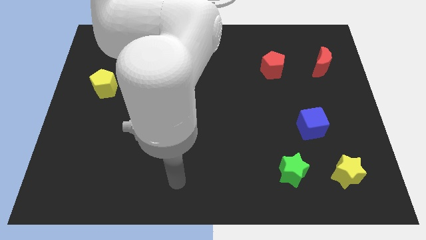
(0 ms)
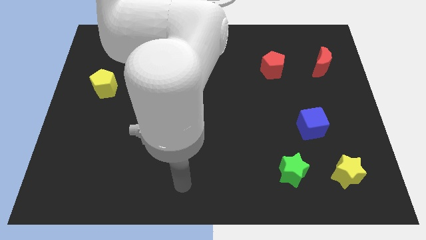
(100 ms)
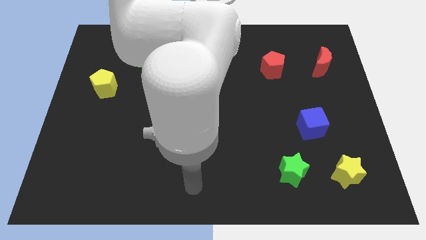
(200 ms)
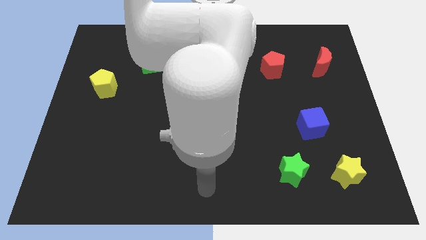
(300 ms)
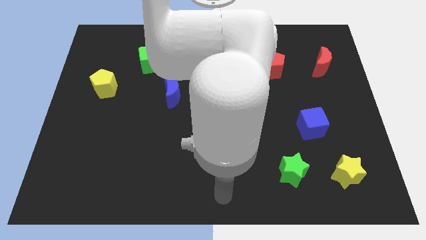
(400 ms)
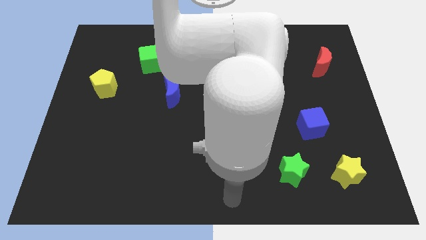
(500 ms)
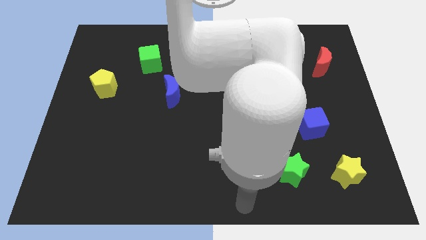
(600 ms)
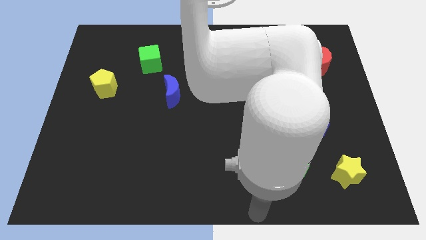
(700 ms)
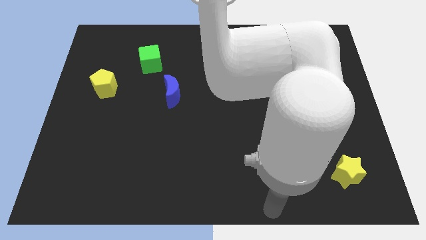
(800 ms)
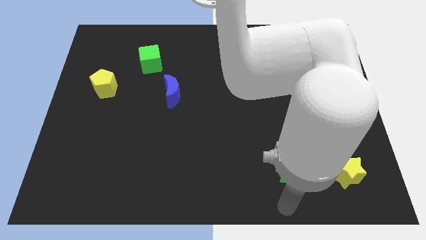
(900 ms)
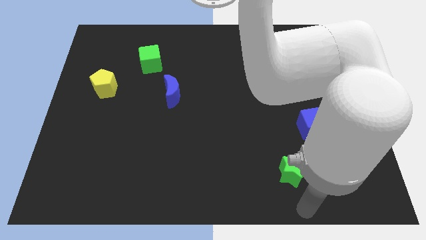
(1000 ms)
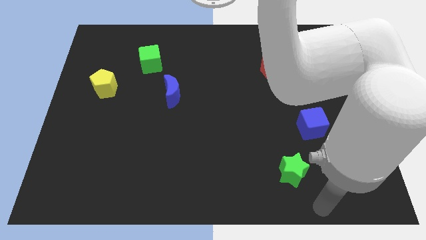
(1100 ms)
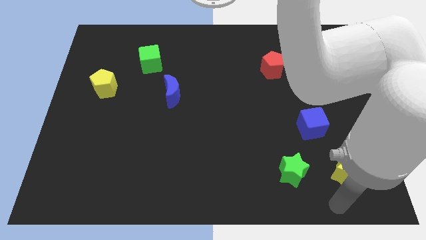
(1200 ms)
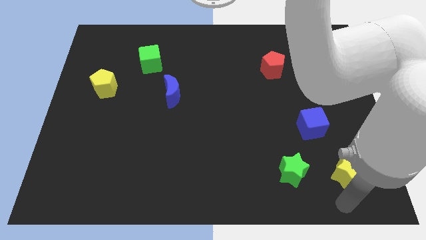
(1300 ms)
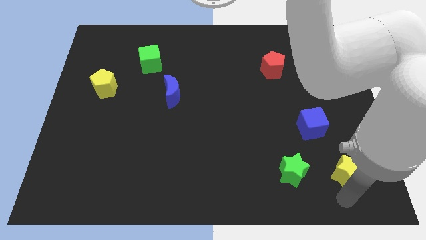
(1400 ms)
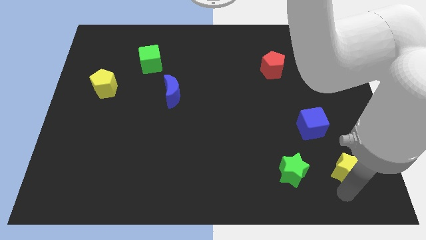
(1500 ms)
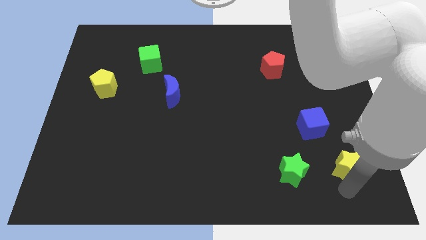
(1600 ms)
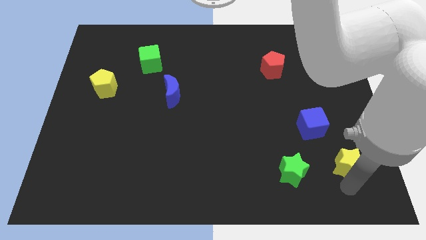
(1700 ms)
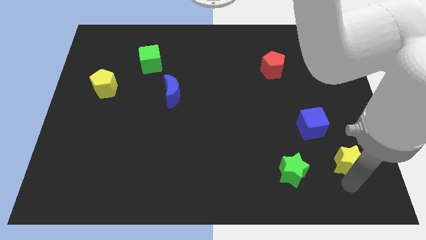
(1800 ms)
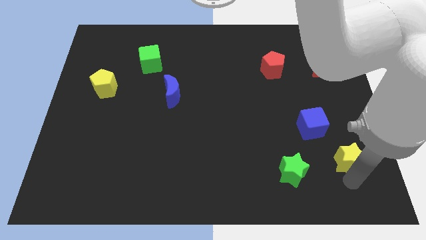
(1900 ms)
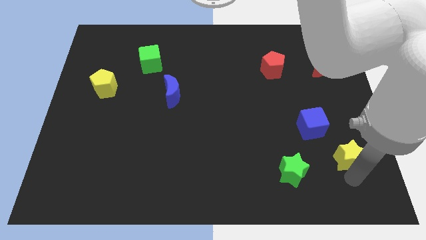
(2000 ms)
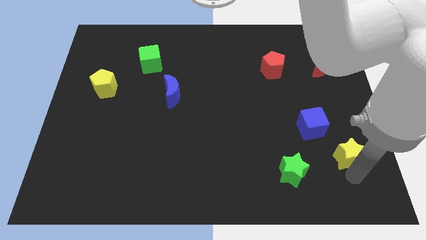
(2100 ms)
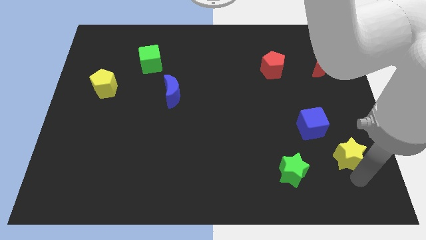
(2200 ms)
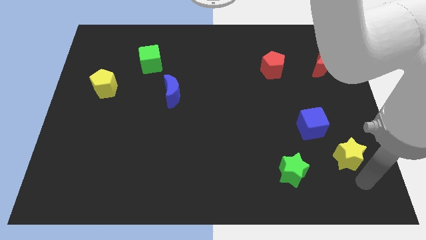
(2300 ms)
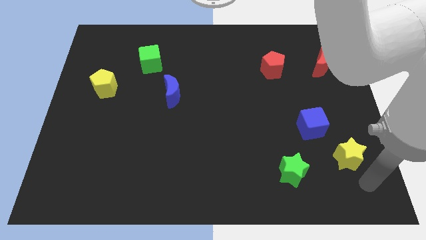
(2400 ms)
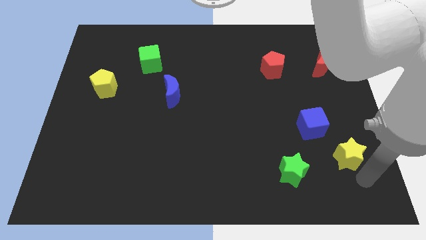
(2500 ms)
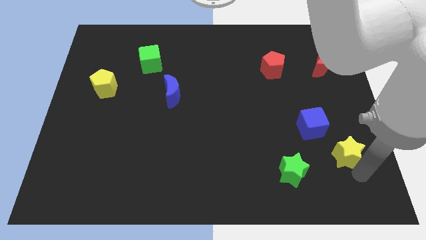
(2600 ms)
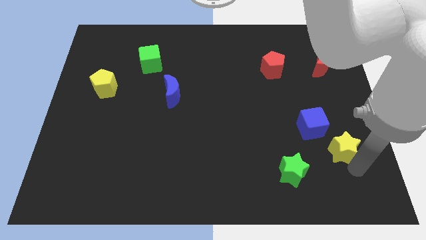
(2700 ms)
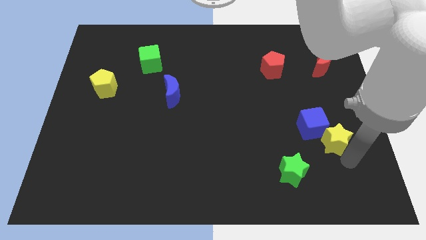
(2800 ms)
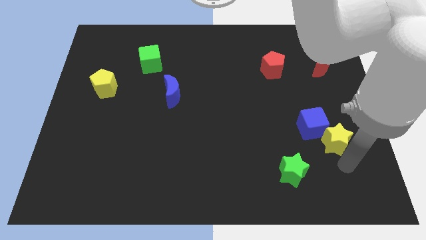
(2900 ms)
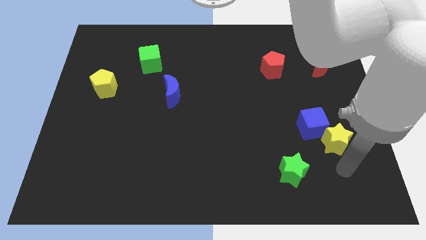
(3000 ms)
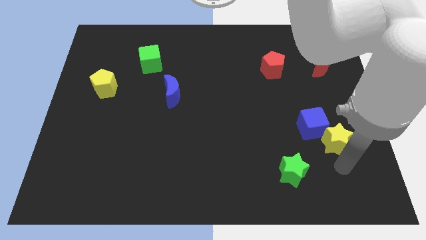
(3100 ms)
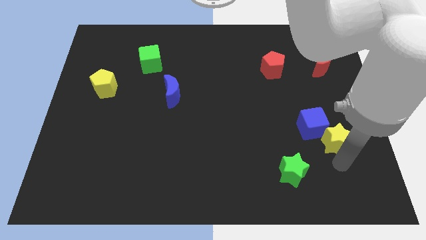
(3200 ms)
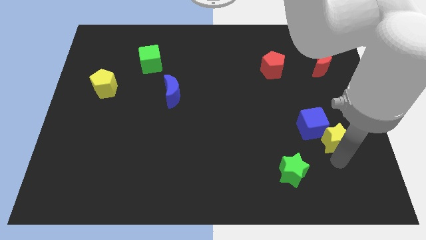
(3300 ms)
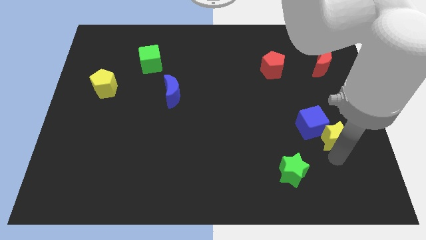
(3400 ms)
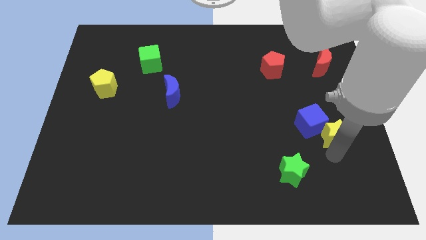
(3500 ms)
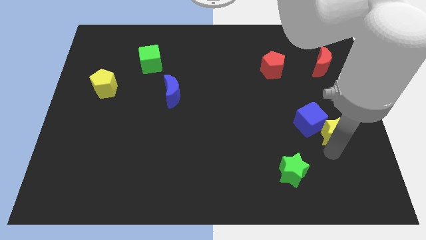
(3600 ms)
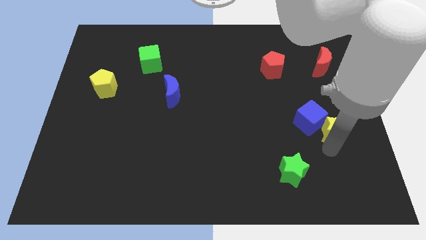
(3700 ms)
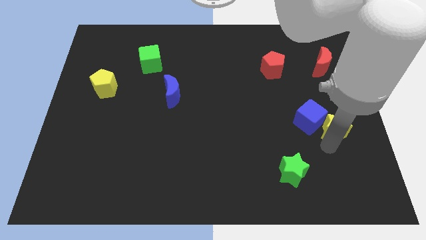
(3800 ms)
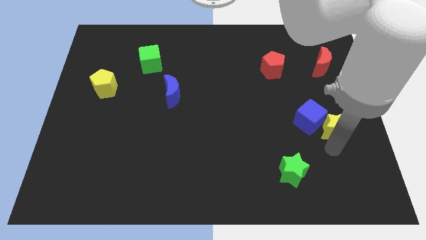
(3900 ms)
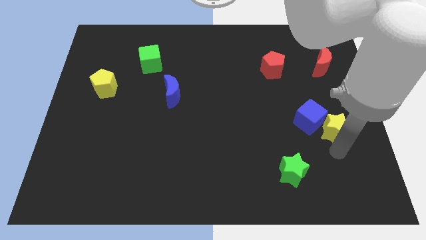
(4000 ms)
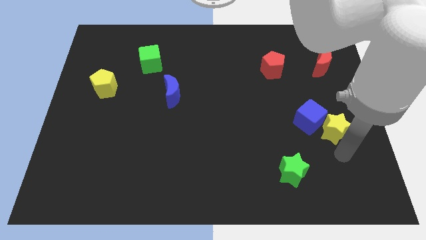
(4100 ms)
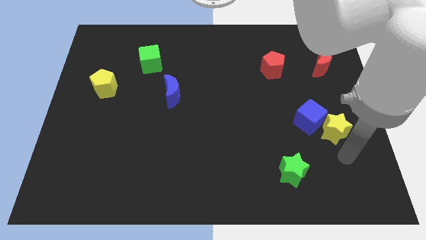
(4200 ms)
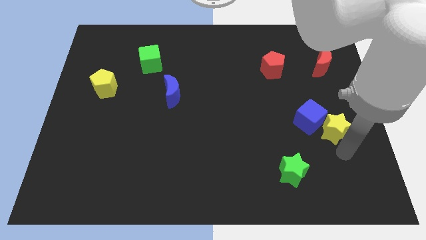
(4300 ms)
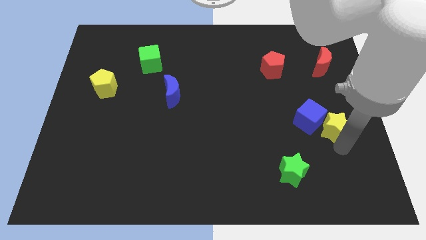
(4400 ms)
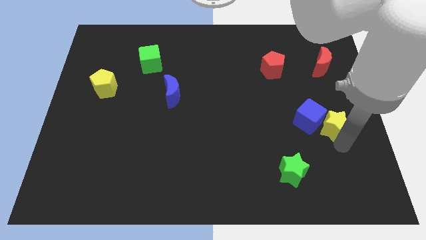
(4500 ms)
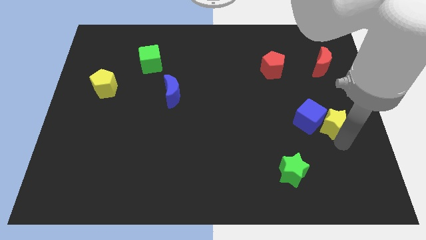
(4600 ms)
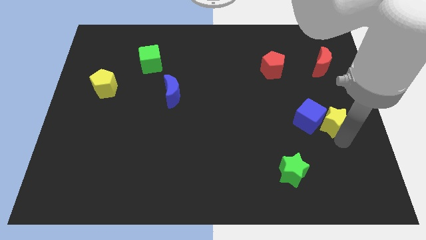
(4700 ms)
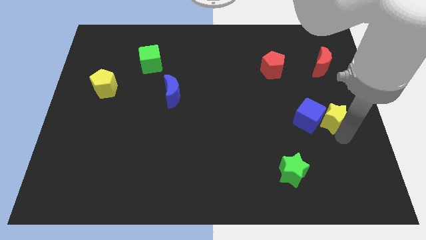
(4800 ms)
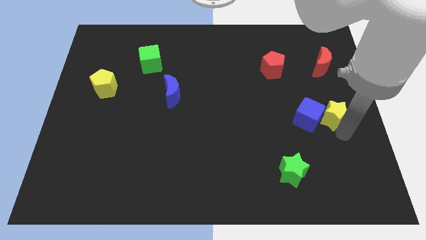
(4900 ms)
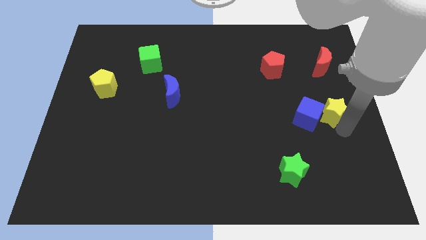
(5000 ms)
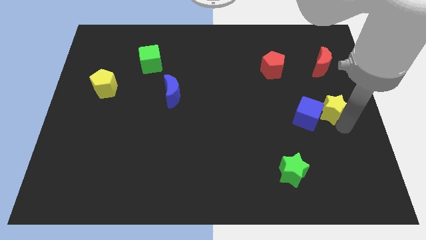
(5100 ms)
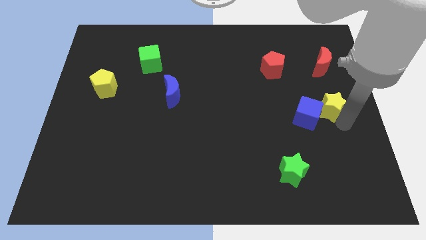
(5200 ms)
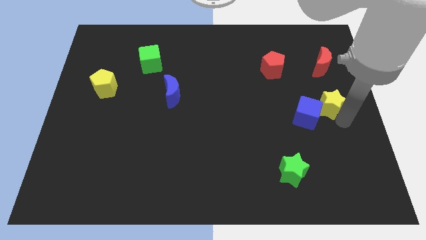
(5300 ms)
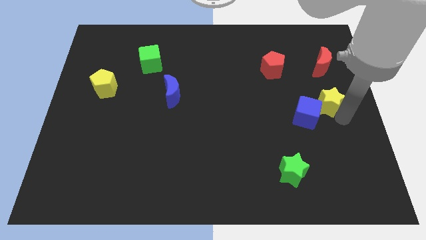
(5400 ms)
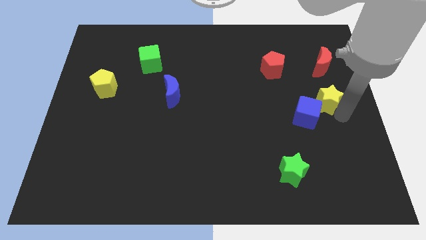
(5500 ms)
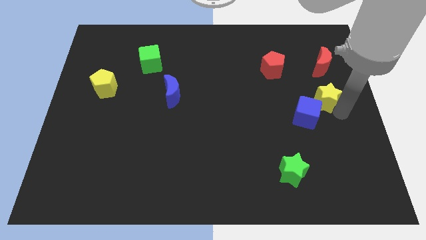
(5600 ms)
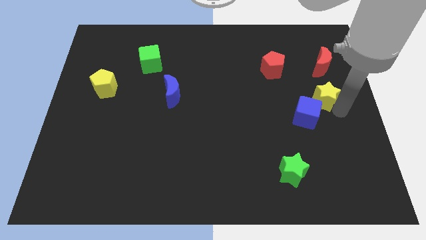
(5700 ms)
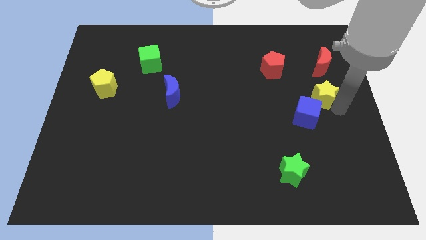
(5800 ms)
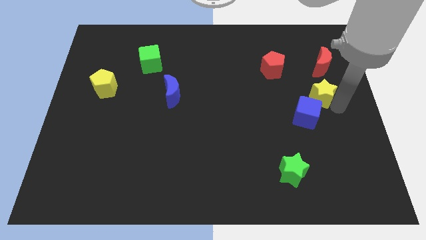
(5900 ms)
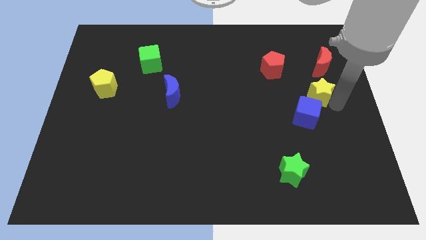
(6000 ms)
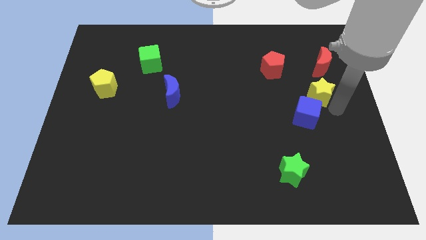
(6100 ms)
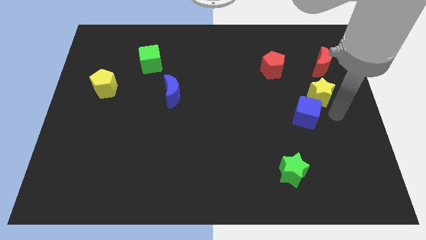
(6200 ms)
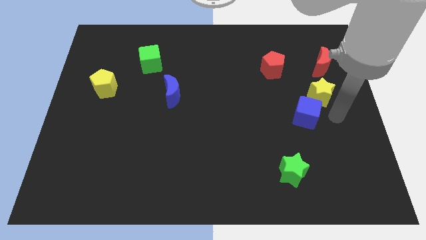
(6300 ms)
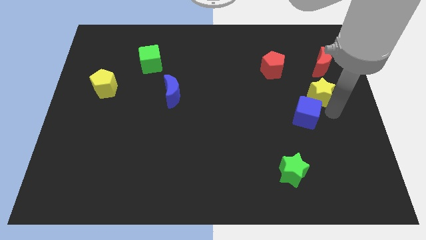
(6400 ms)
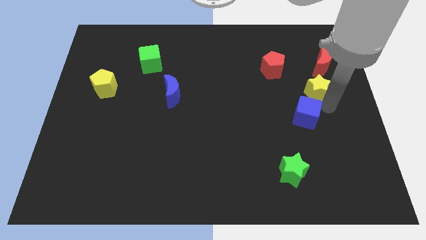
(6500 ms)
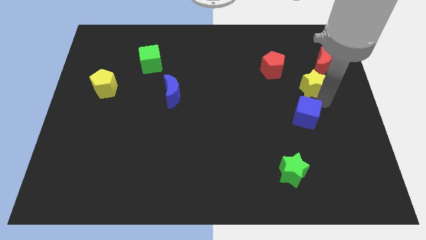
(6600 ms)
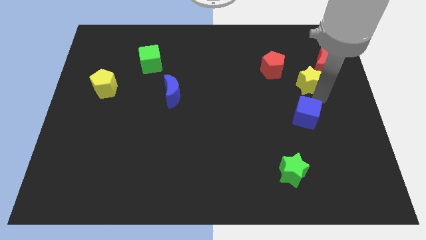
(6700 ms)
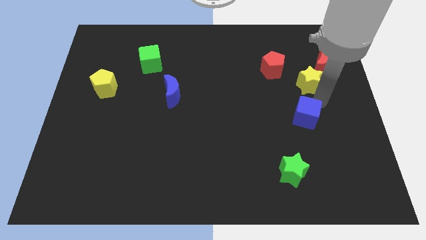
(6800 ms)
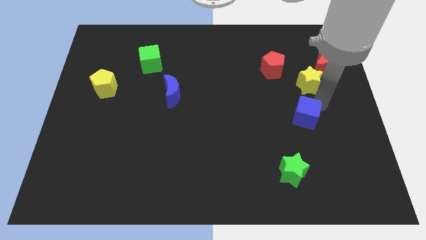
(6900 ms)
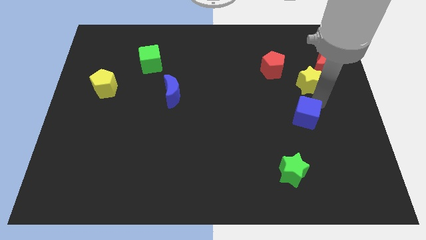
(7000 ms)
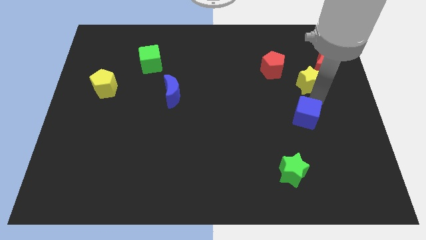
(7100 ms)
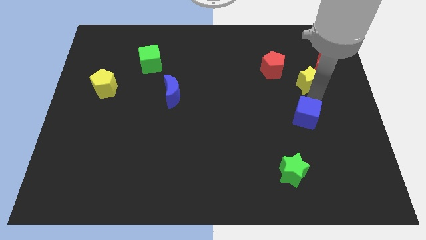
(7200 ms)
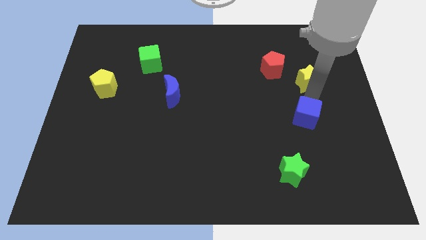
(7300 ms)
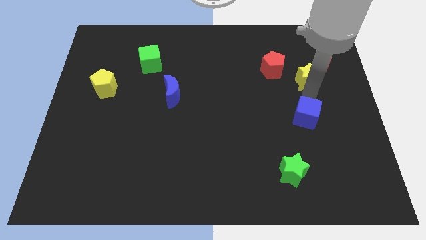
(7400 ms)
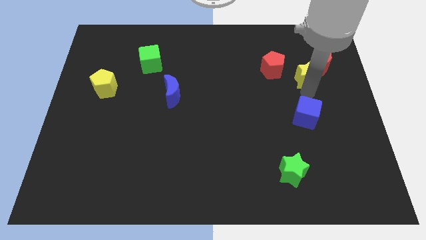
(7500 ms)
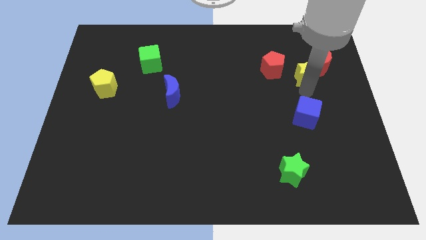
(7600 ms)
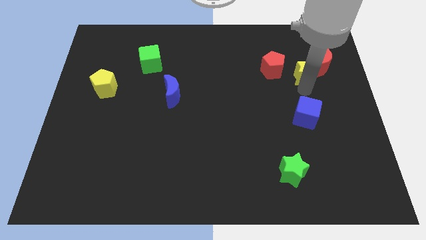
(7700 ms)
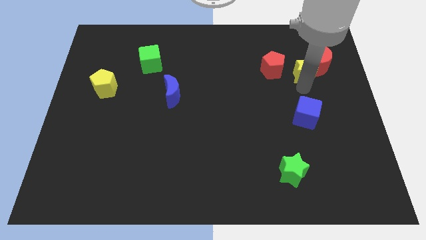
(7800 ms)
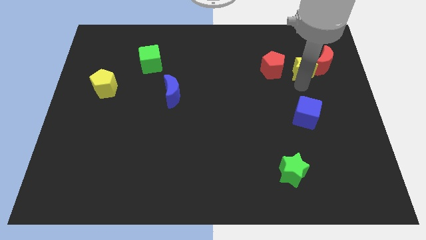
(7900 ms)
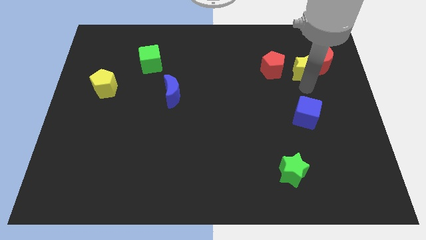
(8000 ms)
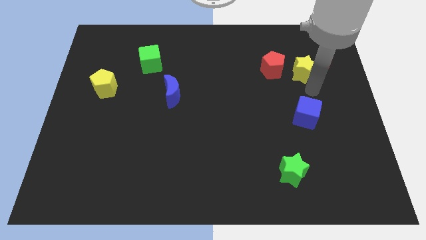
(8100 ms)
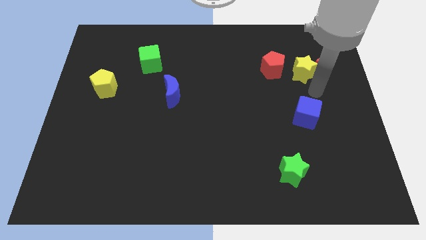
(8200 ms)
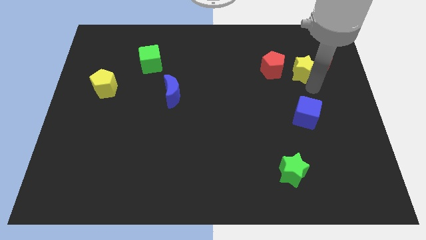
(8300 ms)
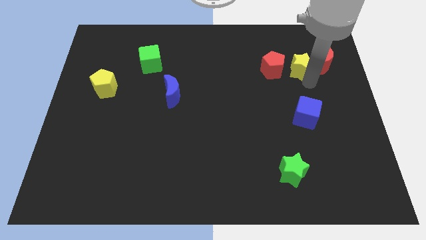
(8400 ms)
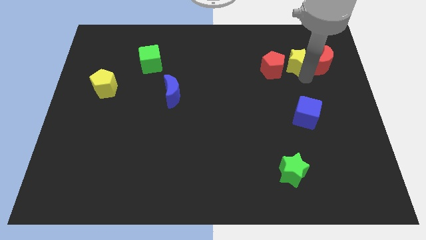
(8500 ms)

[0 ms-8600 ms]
slide the yellow star to the top right side of the red pentagon
